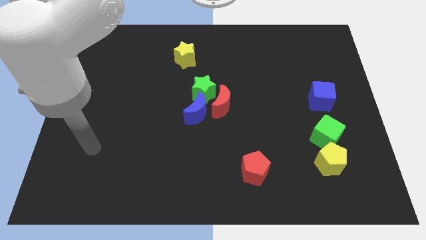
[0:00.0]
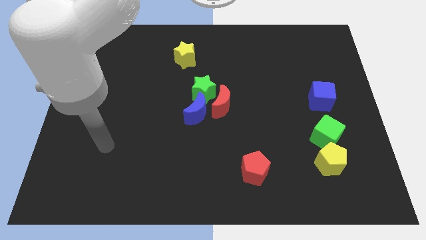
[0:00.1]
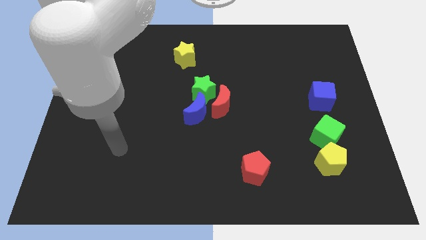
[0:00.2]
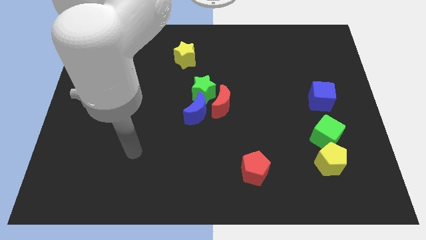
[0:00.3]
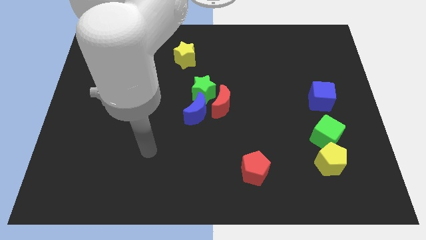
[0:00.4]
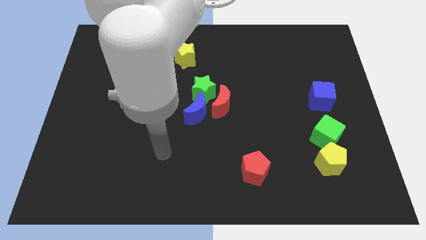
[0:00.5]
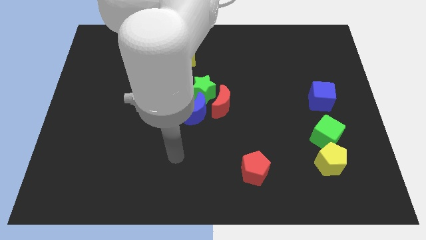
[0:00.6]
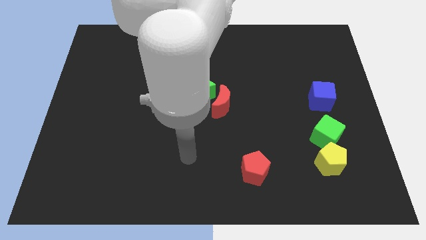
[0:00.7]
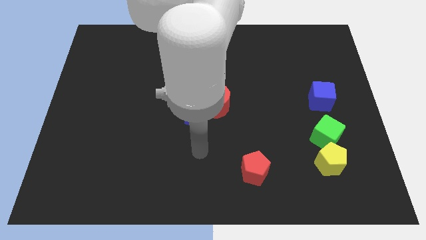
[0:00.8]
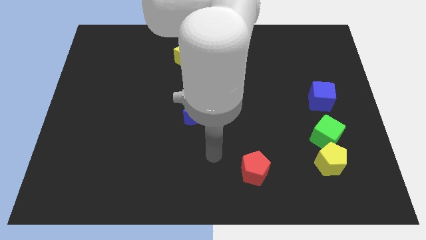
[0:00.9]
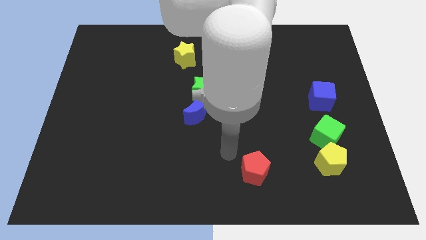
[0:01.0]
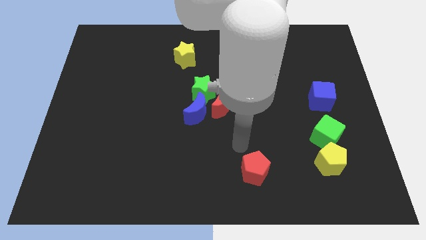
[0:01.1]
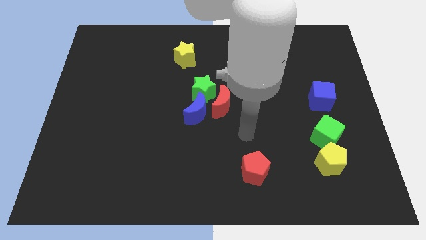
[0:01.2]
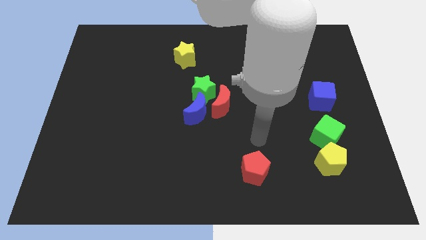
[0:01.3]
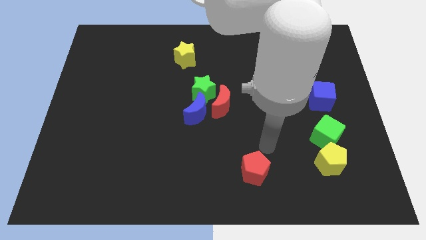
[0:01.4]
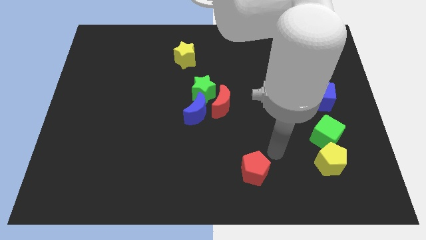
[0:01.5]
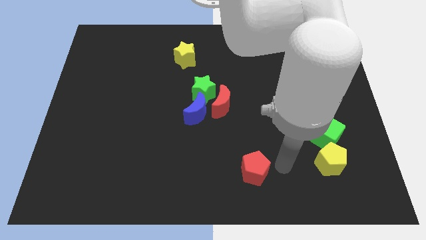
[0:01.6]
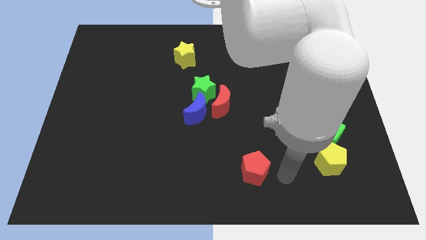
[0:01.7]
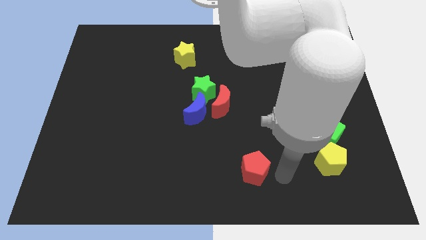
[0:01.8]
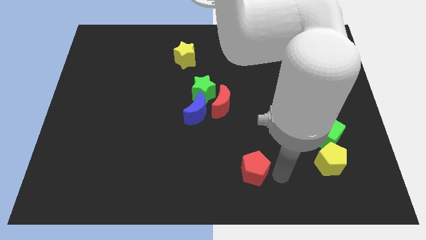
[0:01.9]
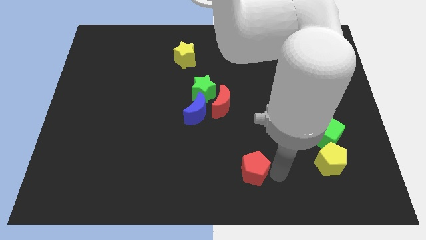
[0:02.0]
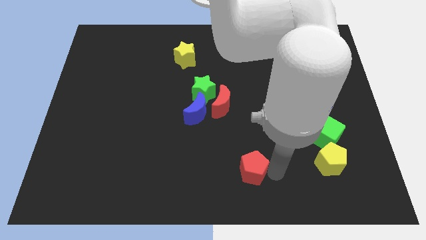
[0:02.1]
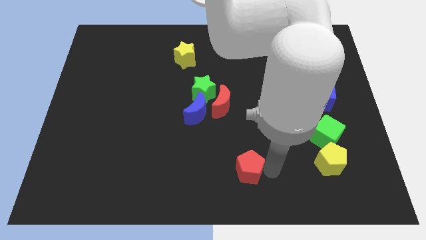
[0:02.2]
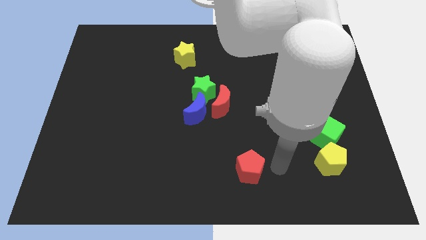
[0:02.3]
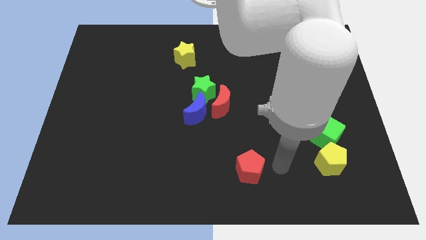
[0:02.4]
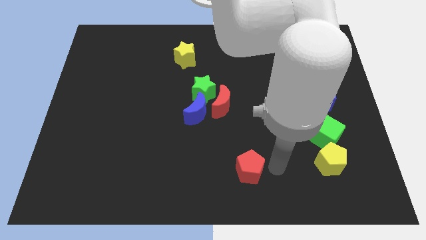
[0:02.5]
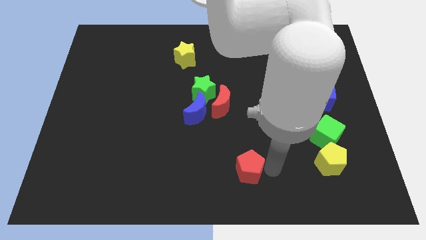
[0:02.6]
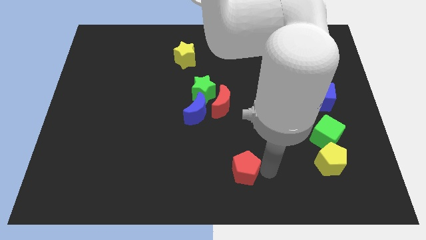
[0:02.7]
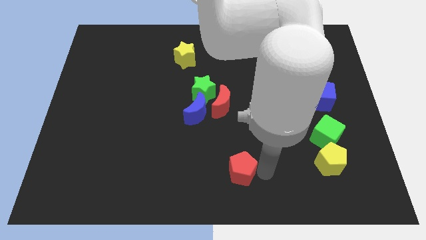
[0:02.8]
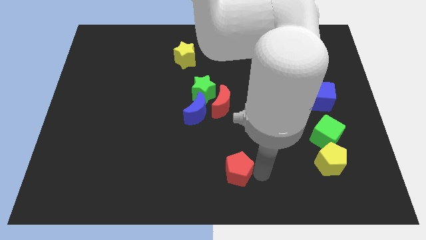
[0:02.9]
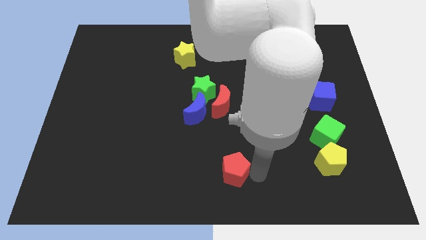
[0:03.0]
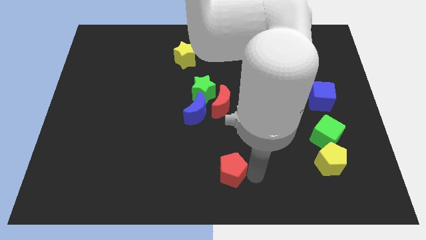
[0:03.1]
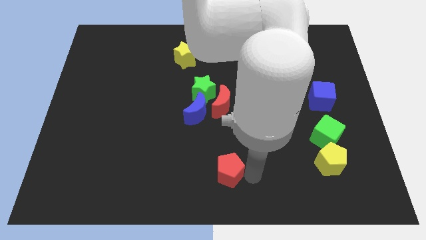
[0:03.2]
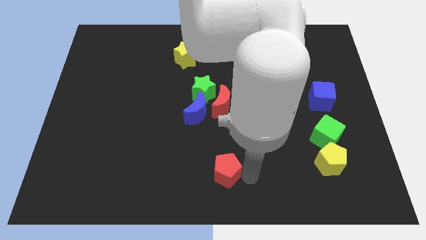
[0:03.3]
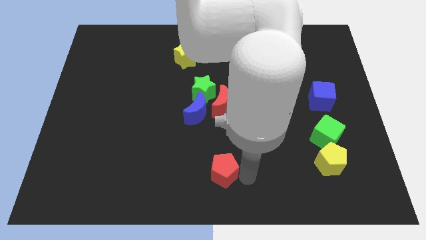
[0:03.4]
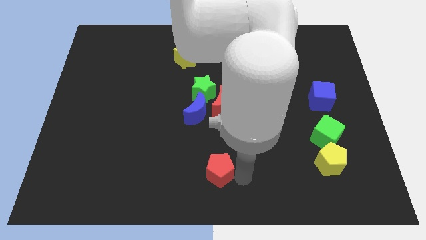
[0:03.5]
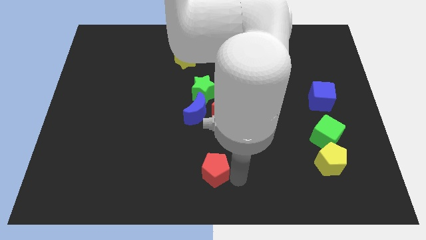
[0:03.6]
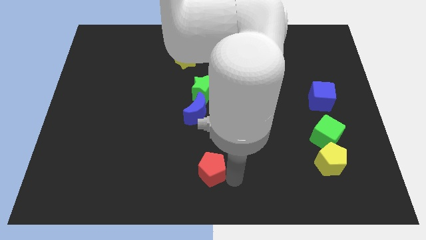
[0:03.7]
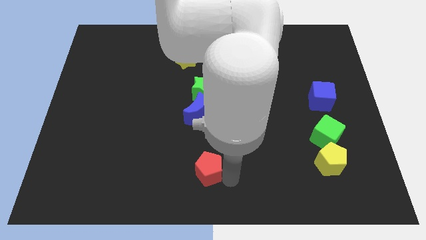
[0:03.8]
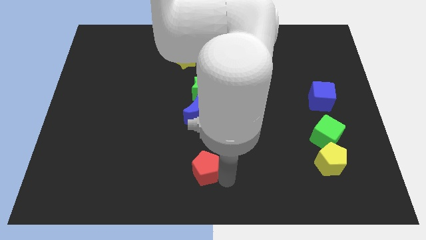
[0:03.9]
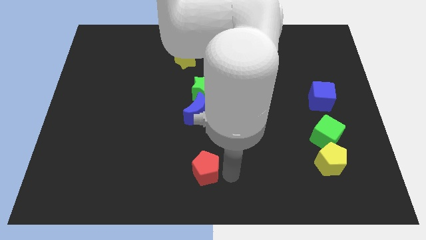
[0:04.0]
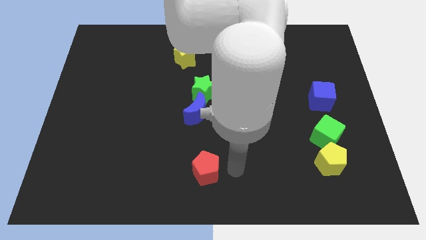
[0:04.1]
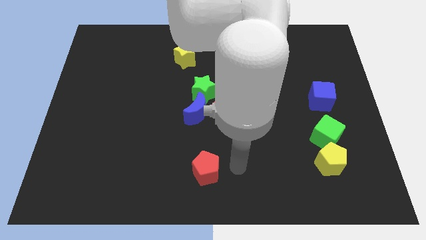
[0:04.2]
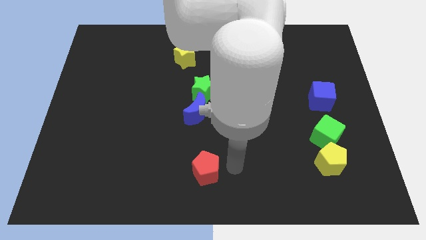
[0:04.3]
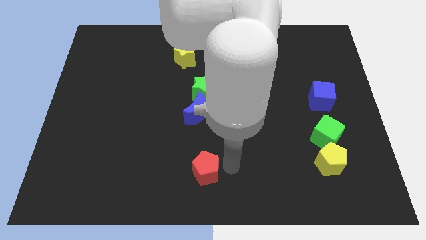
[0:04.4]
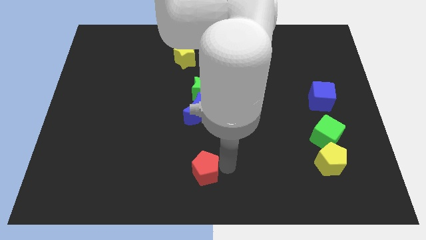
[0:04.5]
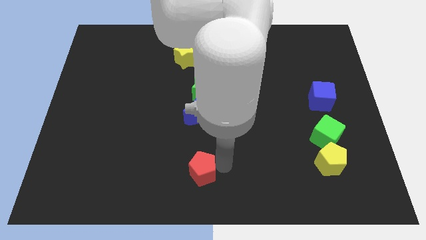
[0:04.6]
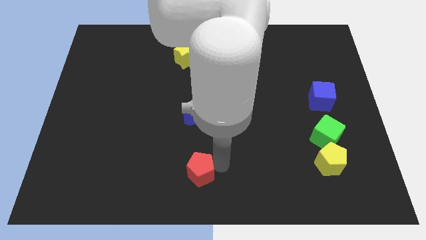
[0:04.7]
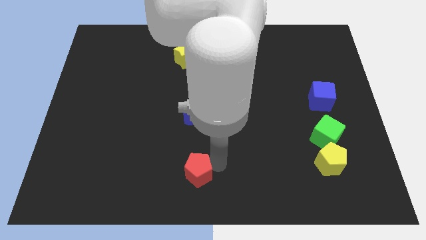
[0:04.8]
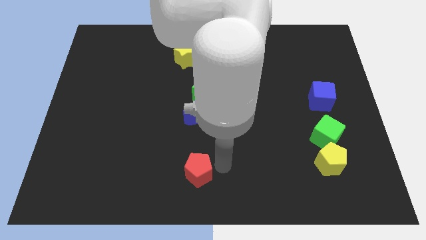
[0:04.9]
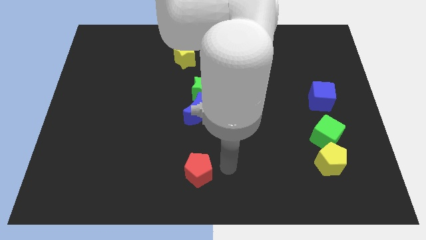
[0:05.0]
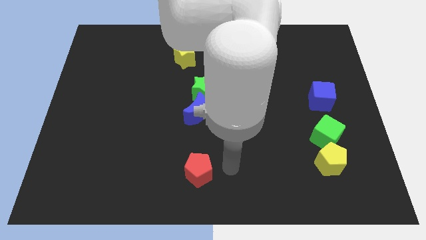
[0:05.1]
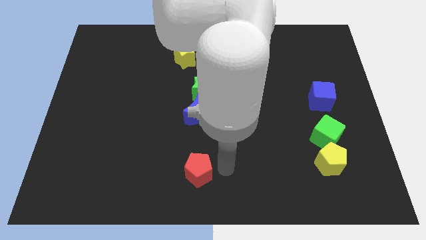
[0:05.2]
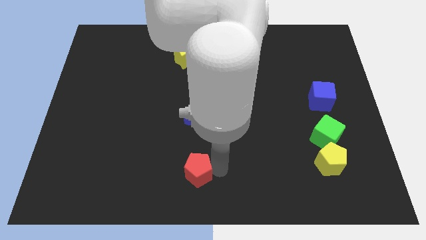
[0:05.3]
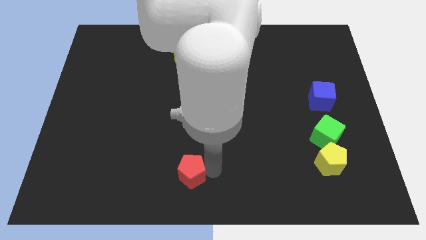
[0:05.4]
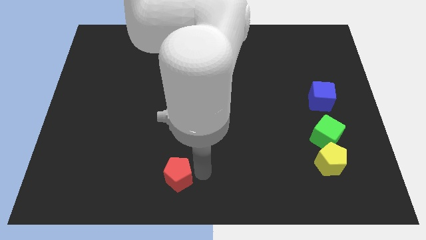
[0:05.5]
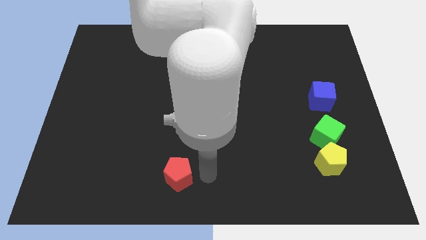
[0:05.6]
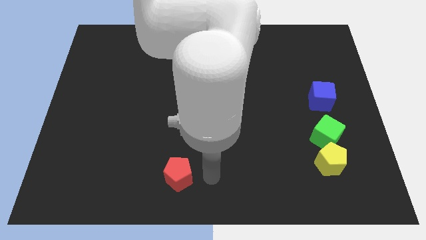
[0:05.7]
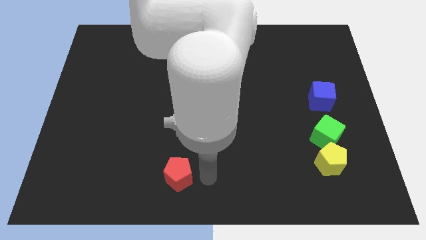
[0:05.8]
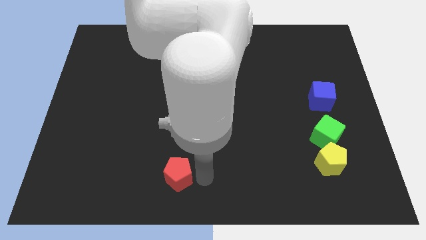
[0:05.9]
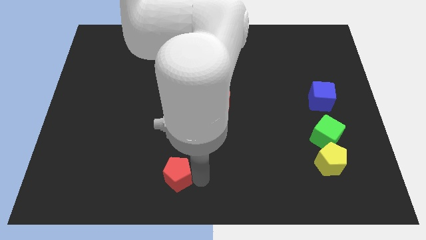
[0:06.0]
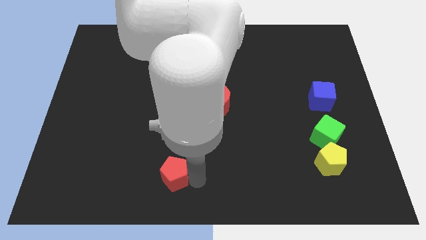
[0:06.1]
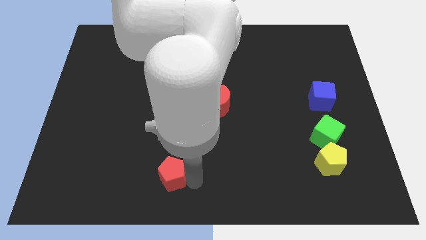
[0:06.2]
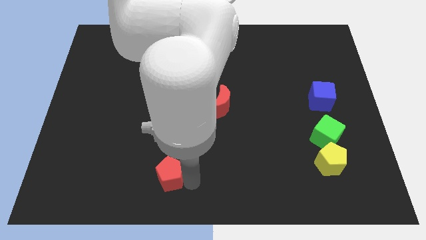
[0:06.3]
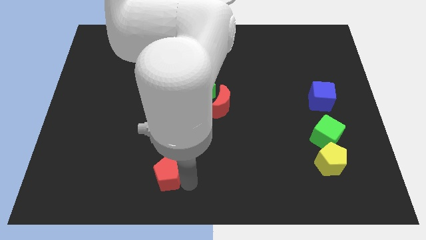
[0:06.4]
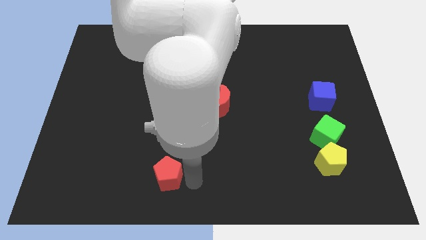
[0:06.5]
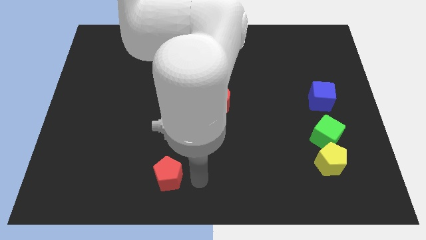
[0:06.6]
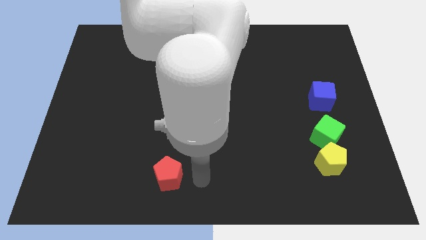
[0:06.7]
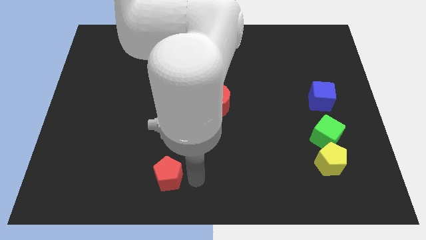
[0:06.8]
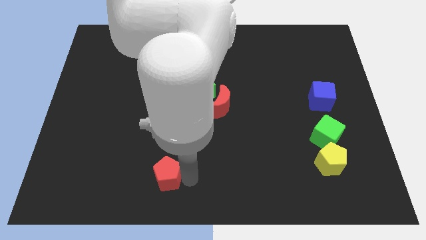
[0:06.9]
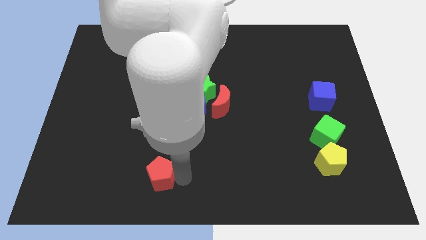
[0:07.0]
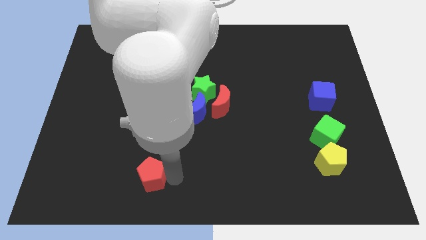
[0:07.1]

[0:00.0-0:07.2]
move the red pentagon left

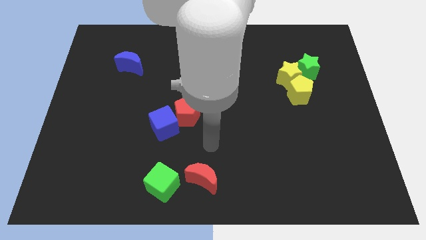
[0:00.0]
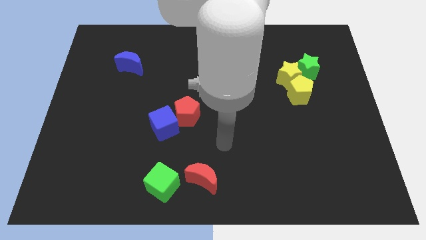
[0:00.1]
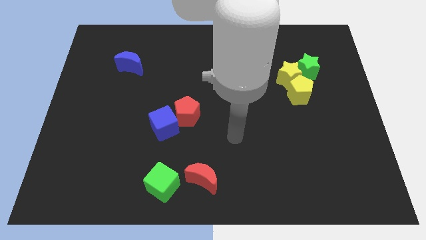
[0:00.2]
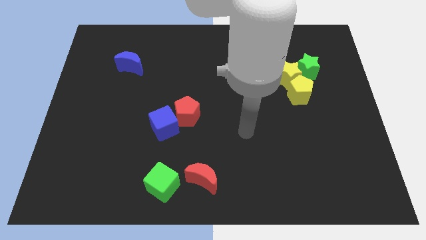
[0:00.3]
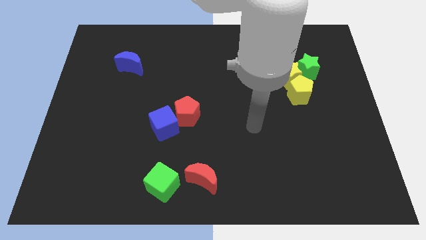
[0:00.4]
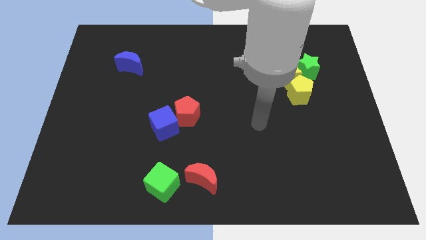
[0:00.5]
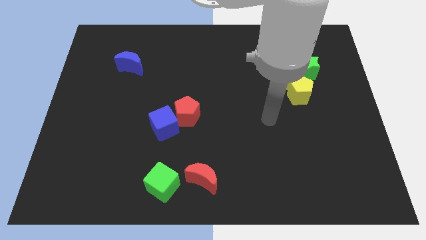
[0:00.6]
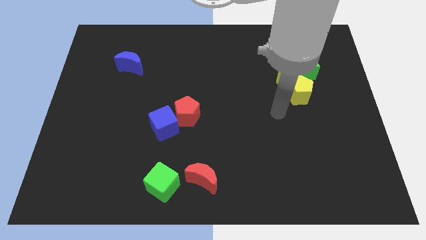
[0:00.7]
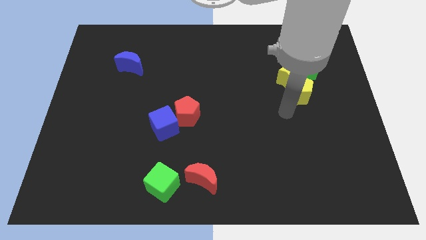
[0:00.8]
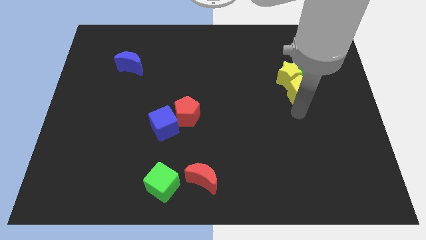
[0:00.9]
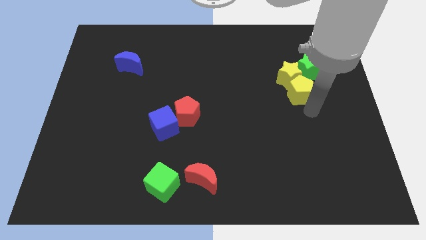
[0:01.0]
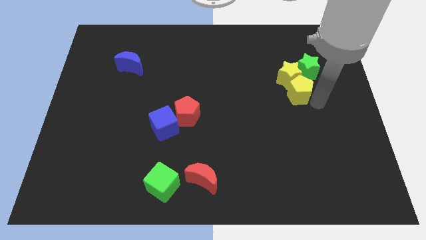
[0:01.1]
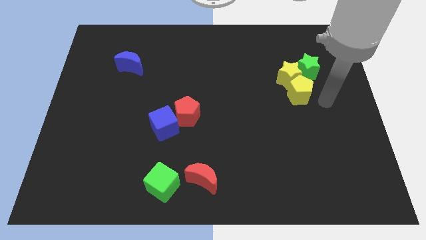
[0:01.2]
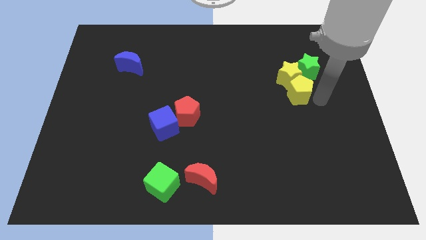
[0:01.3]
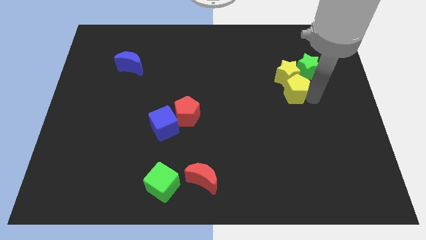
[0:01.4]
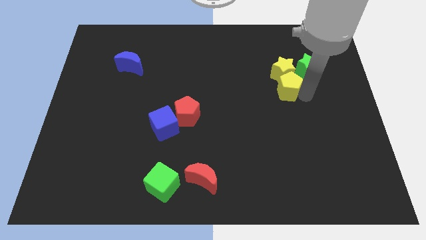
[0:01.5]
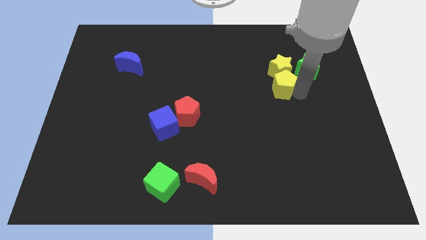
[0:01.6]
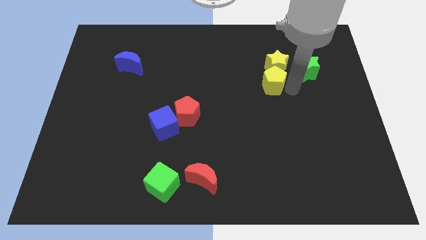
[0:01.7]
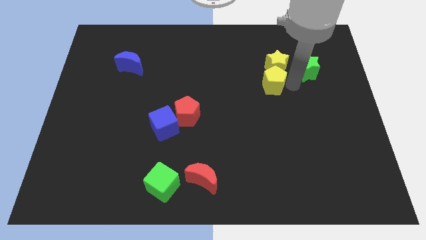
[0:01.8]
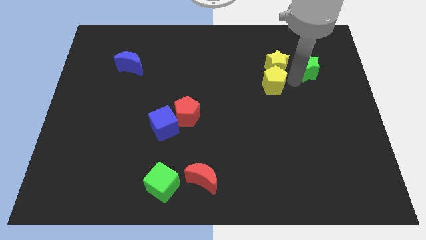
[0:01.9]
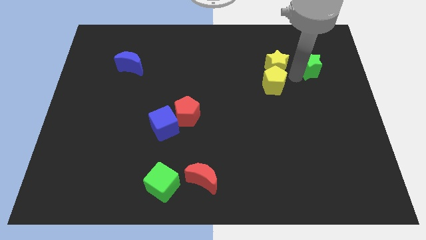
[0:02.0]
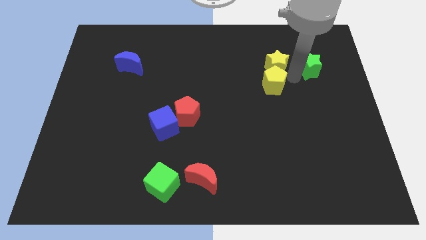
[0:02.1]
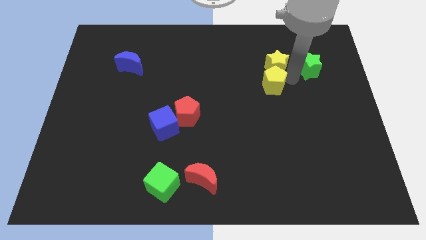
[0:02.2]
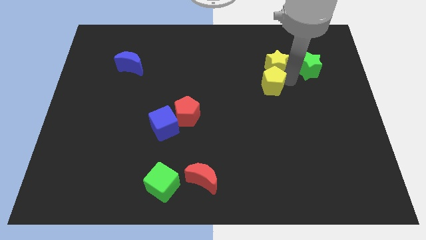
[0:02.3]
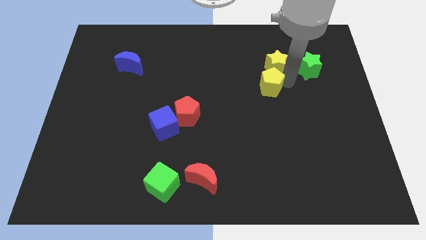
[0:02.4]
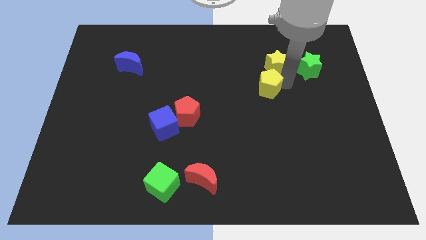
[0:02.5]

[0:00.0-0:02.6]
push the yellow pentagon to the left a bit
